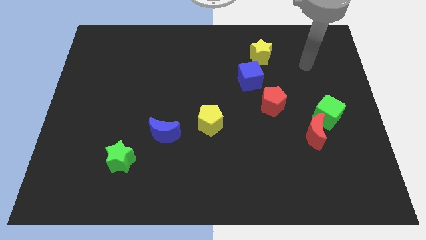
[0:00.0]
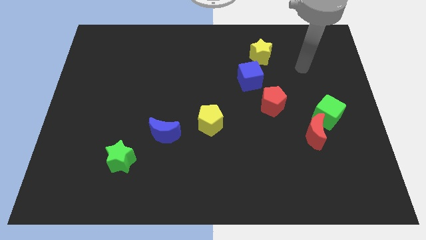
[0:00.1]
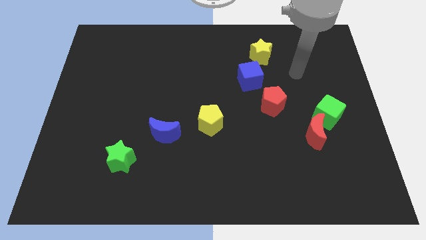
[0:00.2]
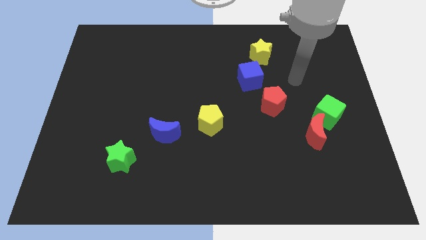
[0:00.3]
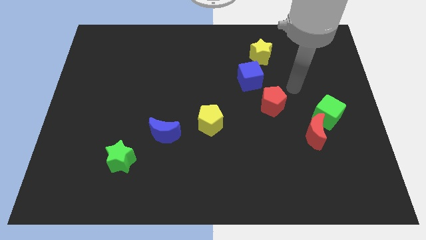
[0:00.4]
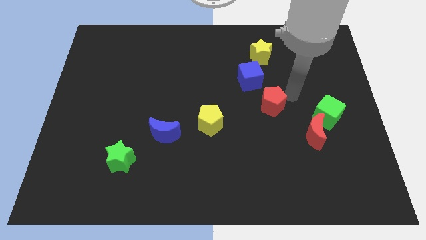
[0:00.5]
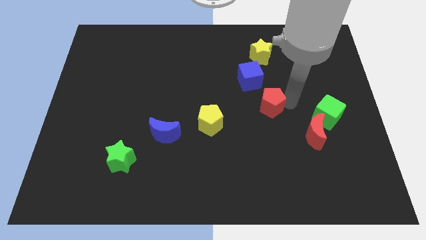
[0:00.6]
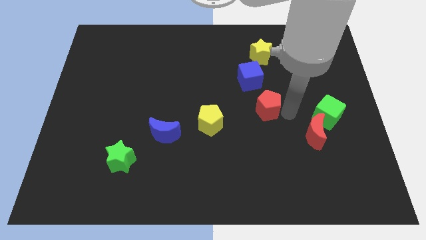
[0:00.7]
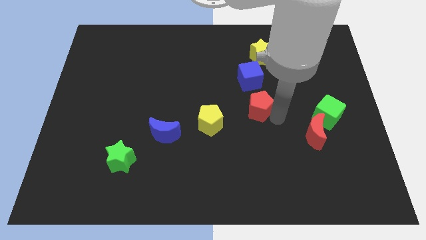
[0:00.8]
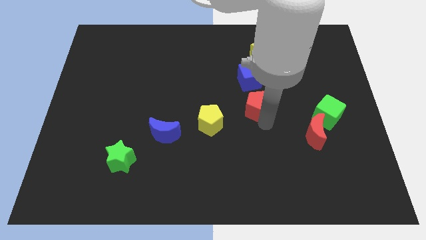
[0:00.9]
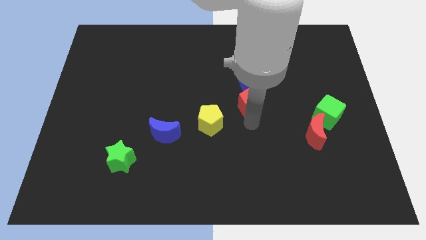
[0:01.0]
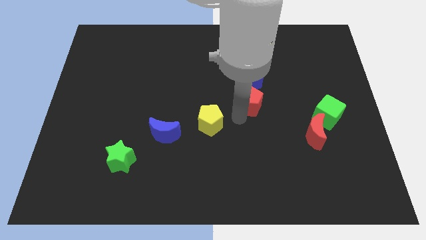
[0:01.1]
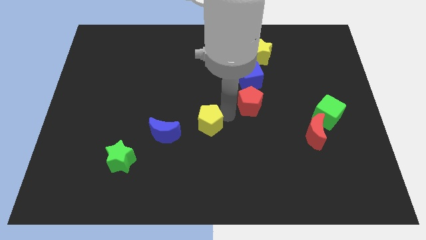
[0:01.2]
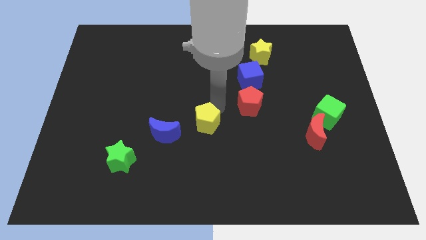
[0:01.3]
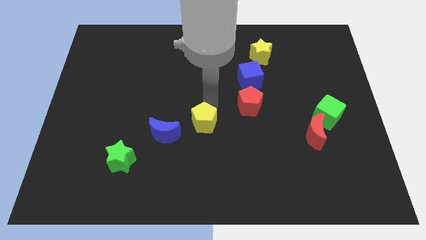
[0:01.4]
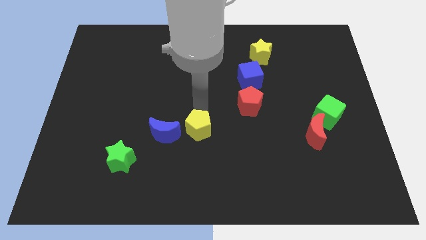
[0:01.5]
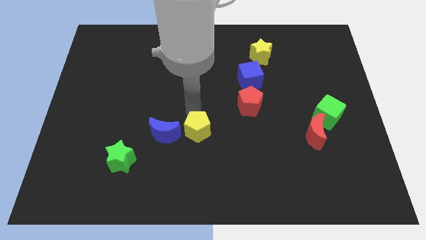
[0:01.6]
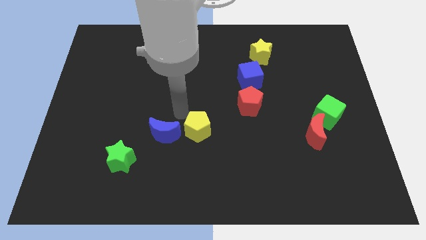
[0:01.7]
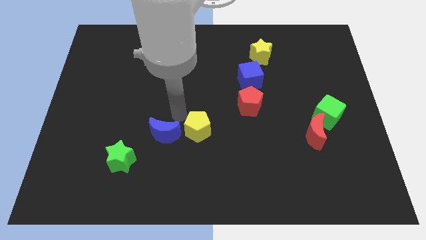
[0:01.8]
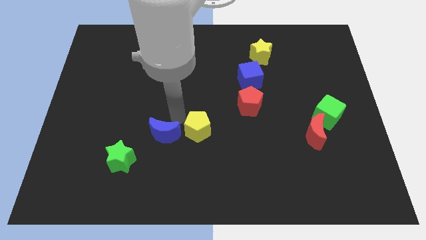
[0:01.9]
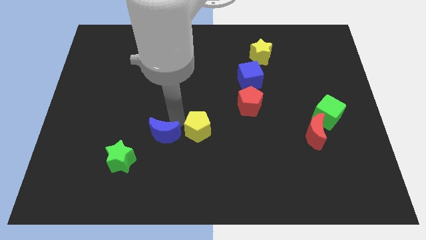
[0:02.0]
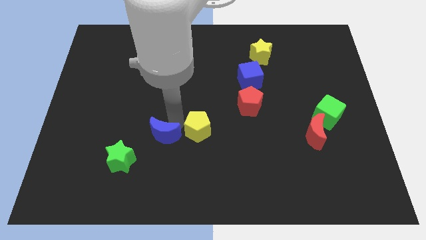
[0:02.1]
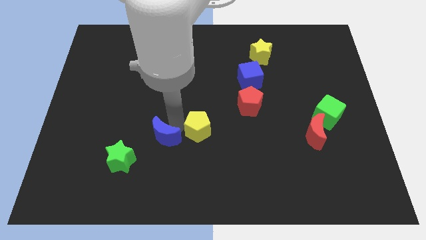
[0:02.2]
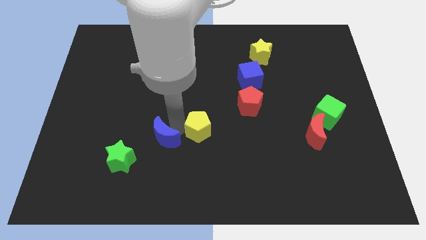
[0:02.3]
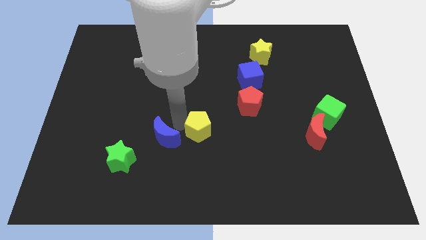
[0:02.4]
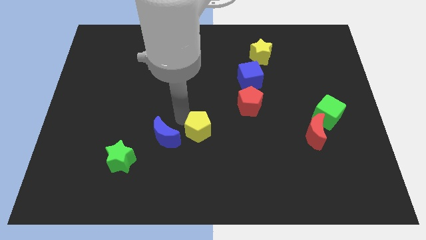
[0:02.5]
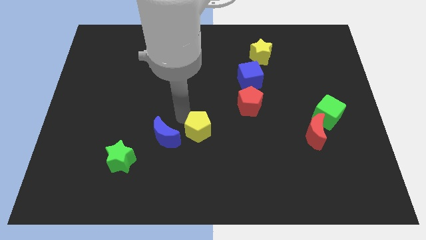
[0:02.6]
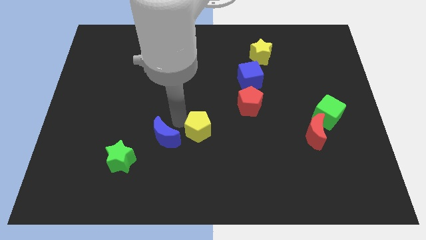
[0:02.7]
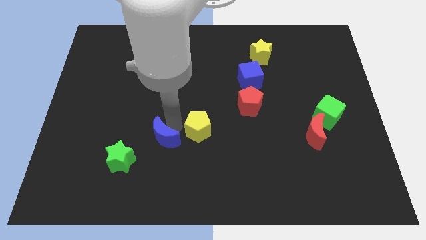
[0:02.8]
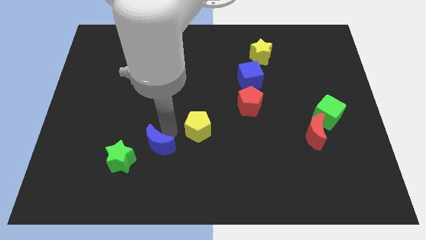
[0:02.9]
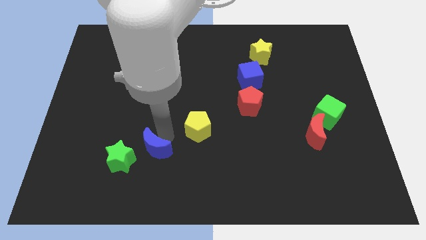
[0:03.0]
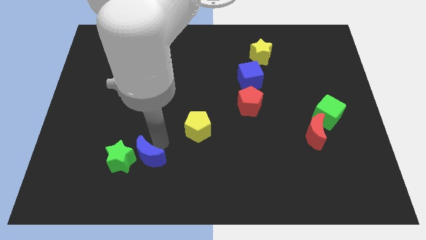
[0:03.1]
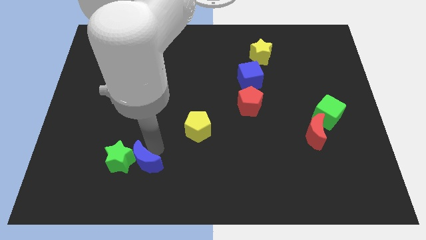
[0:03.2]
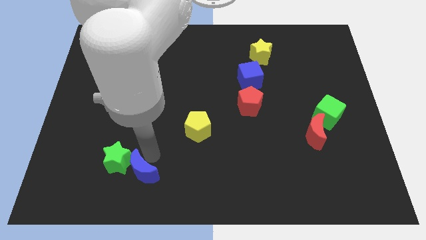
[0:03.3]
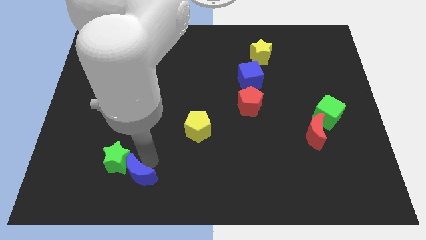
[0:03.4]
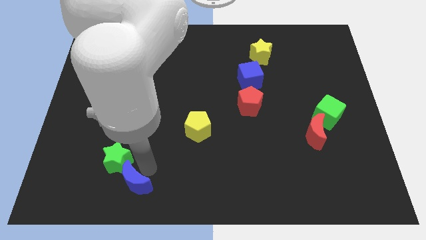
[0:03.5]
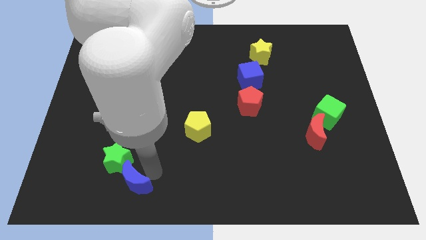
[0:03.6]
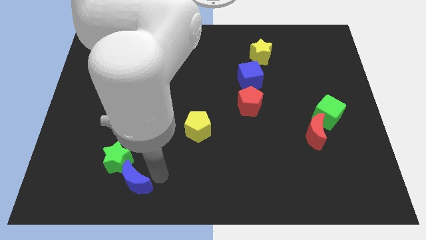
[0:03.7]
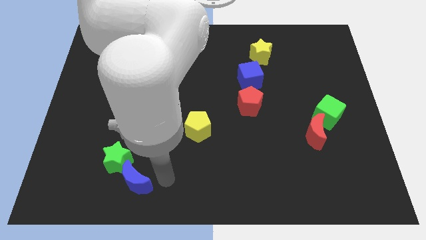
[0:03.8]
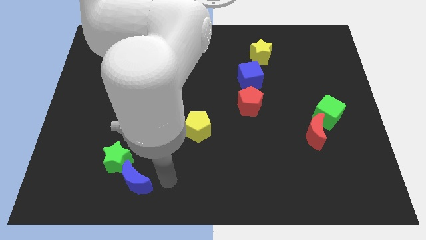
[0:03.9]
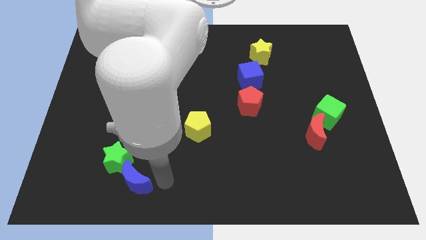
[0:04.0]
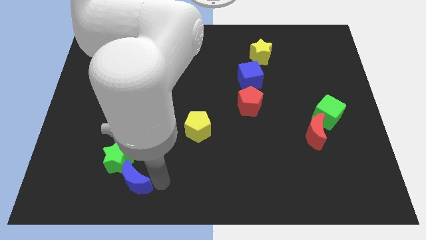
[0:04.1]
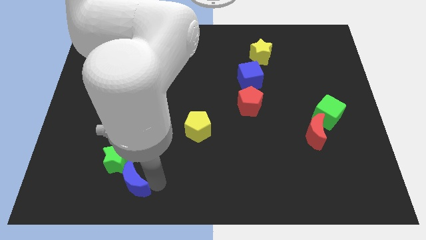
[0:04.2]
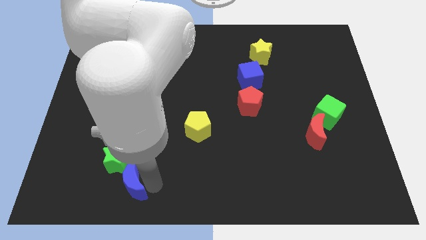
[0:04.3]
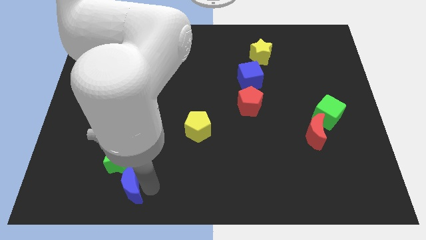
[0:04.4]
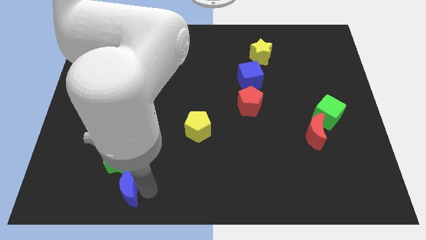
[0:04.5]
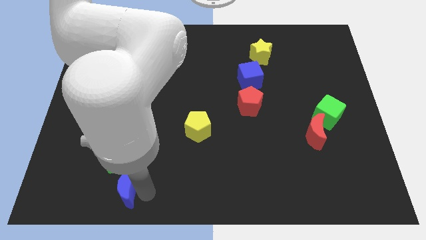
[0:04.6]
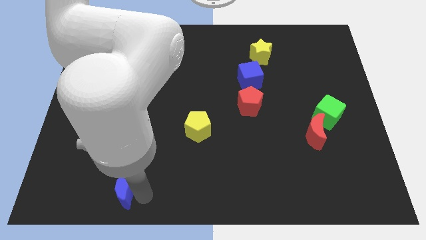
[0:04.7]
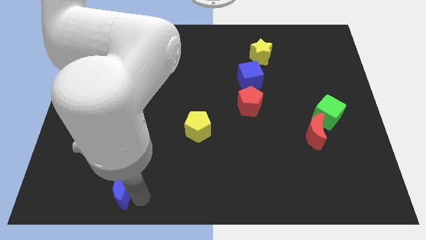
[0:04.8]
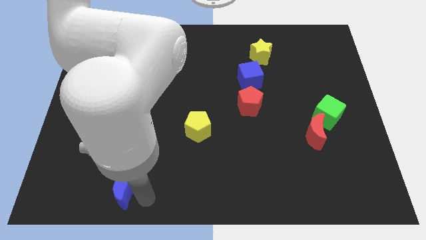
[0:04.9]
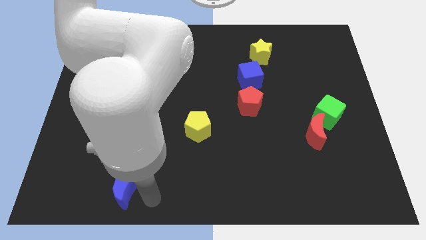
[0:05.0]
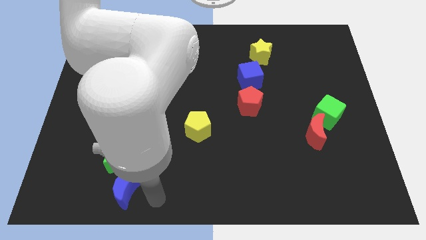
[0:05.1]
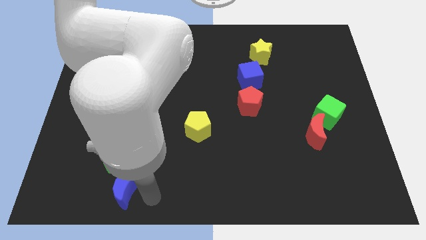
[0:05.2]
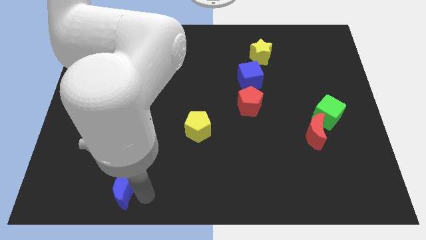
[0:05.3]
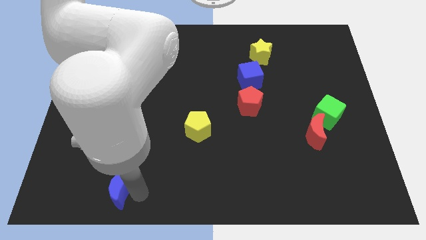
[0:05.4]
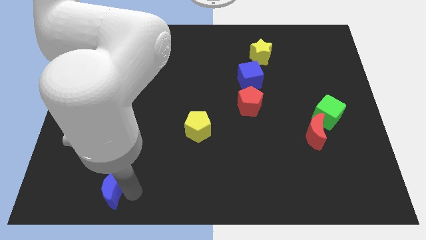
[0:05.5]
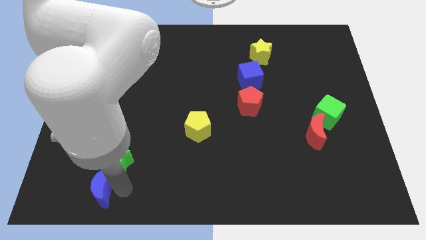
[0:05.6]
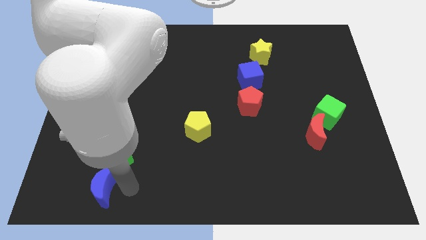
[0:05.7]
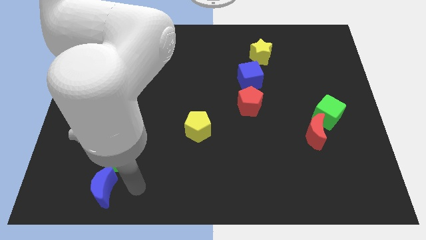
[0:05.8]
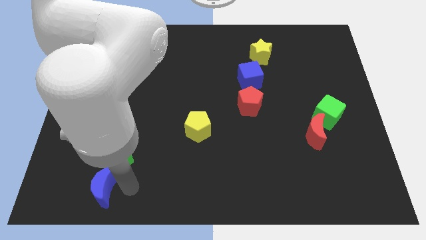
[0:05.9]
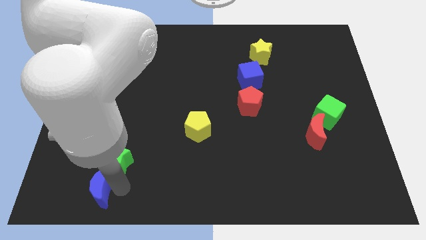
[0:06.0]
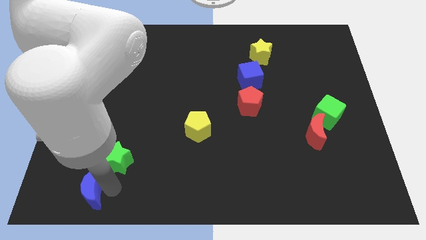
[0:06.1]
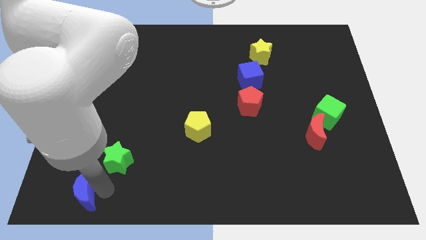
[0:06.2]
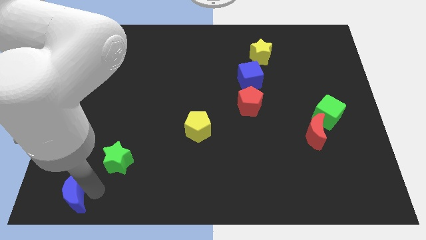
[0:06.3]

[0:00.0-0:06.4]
slide the blue moon to the bottom left corner

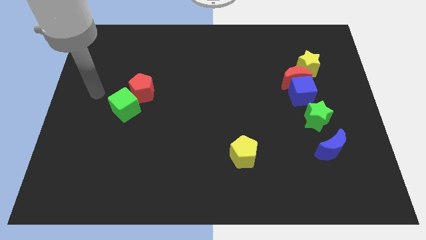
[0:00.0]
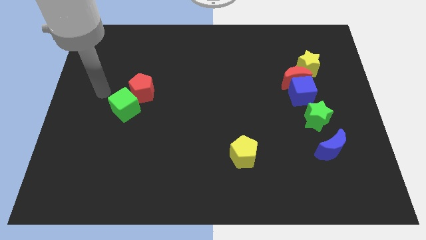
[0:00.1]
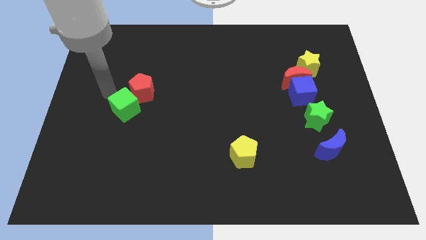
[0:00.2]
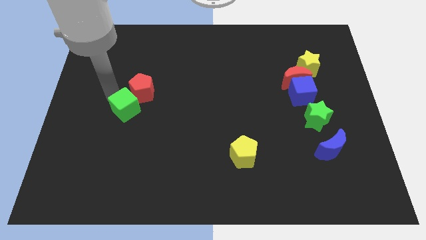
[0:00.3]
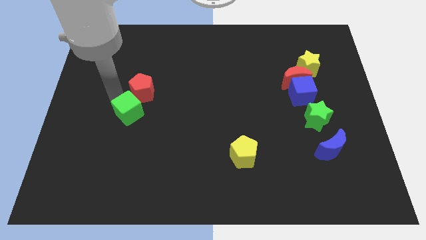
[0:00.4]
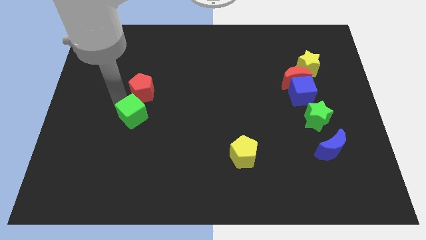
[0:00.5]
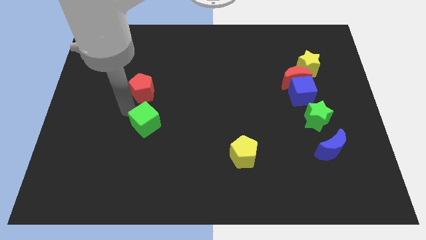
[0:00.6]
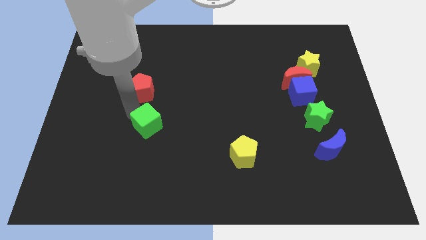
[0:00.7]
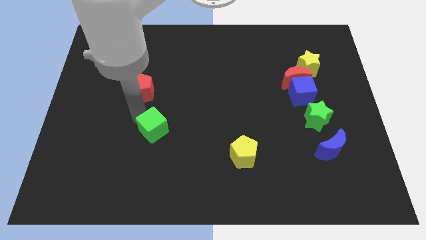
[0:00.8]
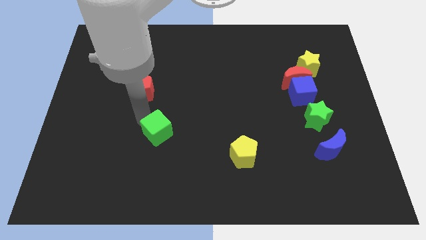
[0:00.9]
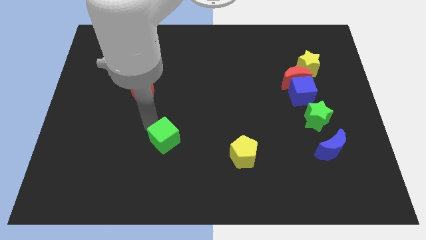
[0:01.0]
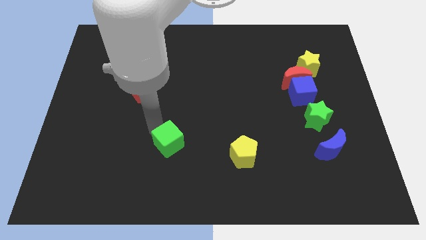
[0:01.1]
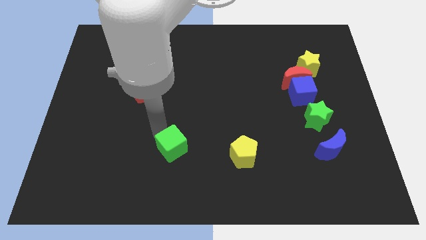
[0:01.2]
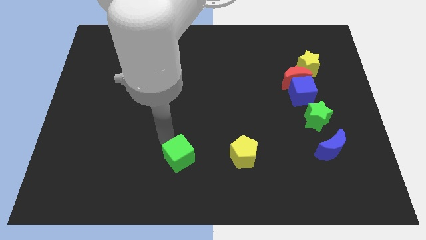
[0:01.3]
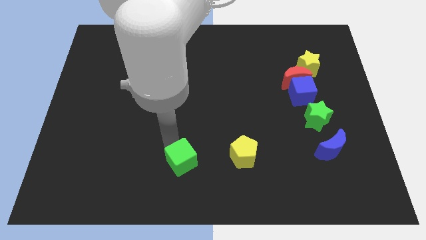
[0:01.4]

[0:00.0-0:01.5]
move the green cube to the bottom side
